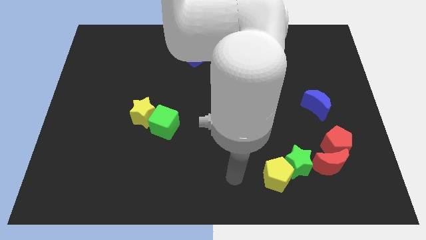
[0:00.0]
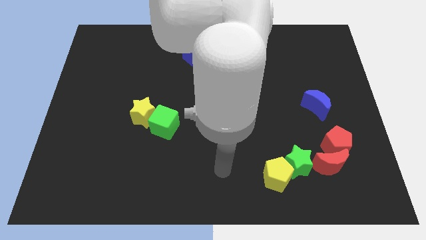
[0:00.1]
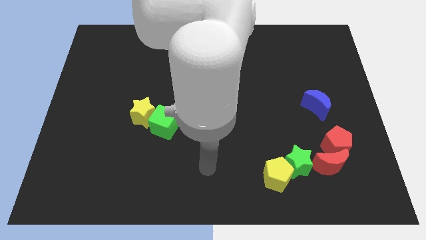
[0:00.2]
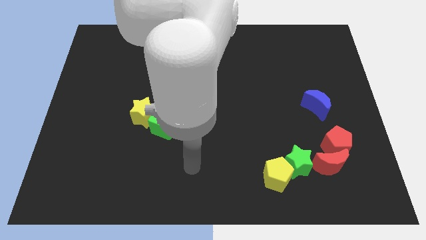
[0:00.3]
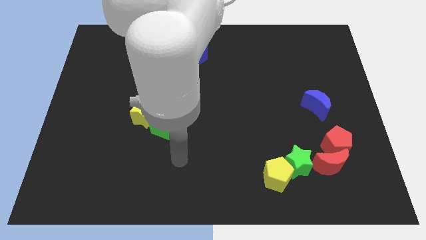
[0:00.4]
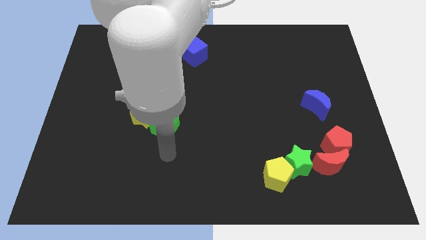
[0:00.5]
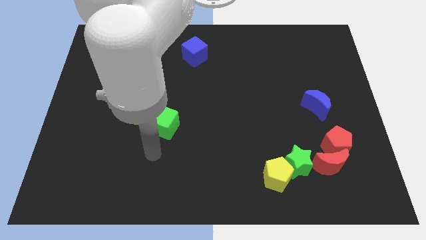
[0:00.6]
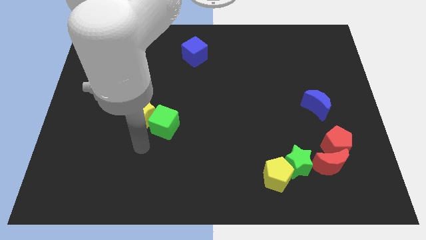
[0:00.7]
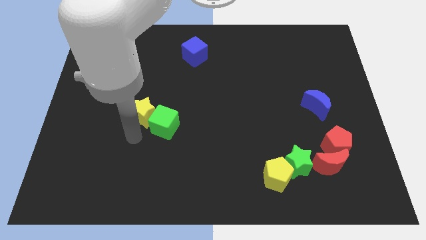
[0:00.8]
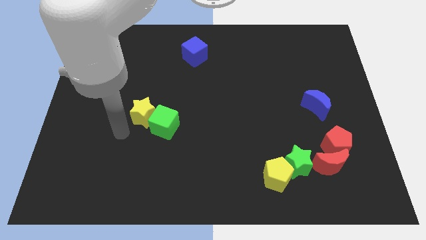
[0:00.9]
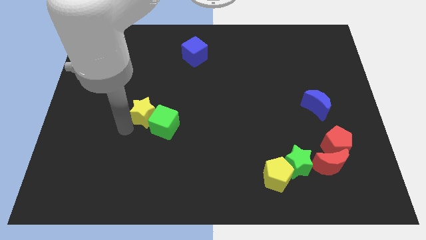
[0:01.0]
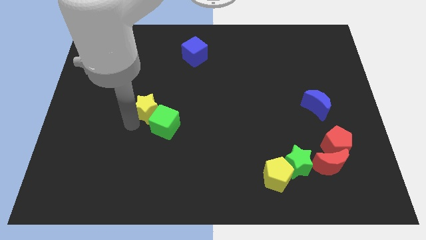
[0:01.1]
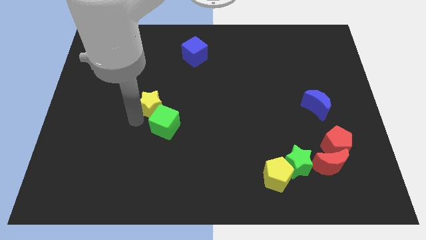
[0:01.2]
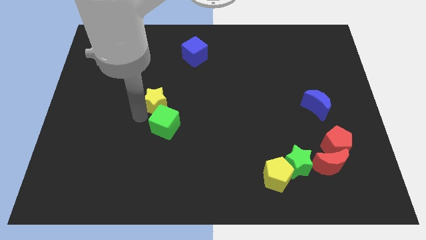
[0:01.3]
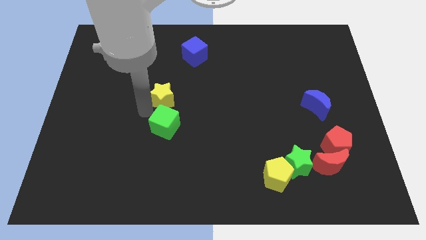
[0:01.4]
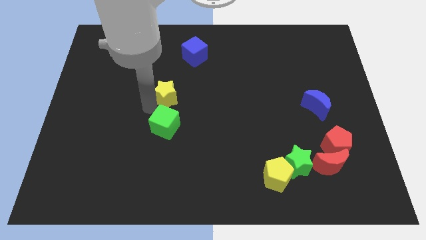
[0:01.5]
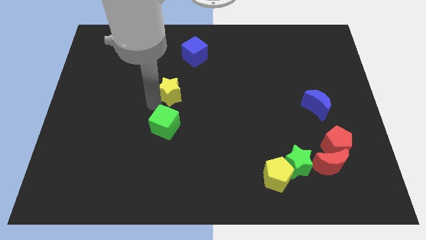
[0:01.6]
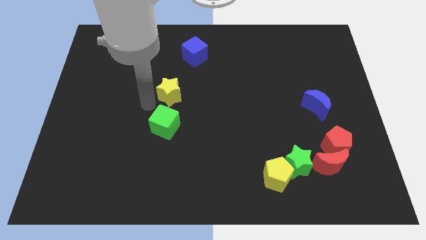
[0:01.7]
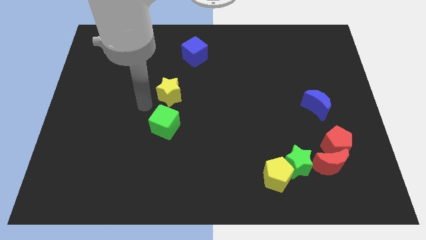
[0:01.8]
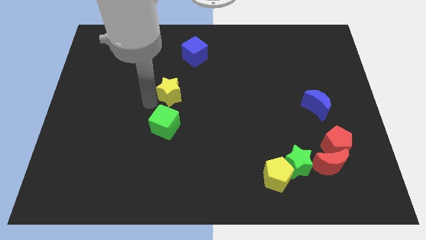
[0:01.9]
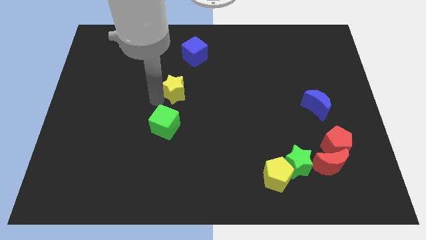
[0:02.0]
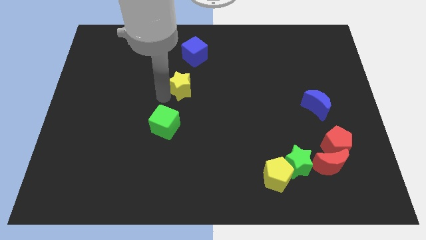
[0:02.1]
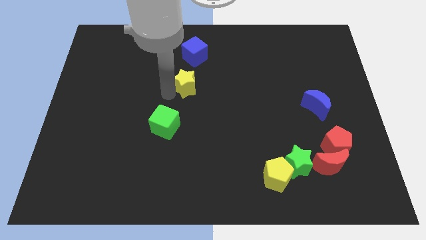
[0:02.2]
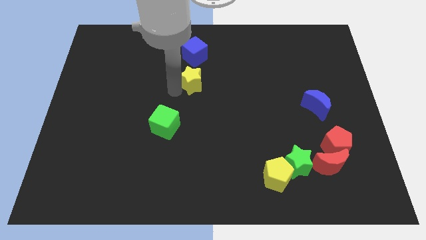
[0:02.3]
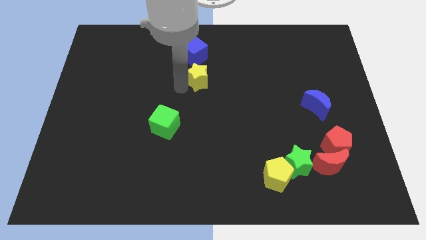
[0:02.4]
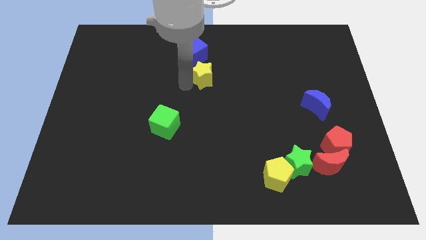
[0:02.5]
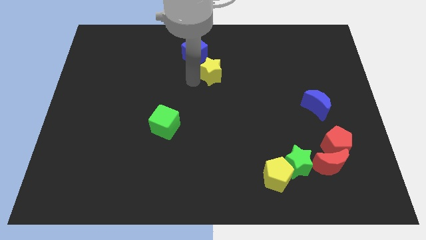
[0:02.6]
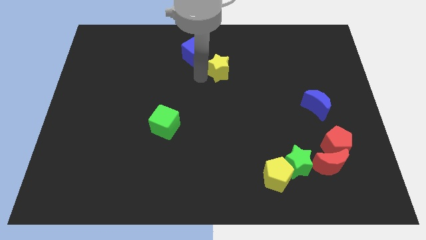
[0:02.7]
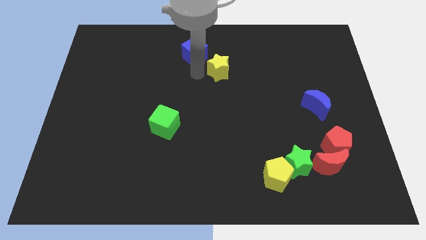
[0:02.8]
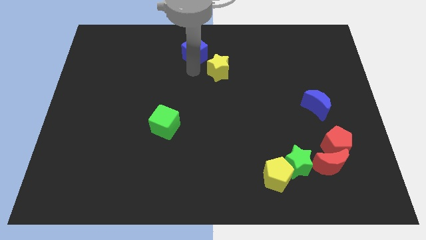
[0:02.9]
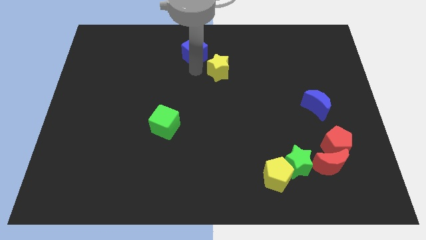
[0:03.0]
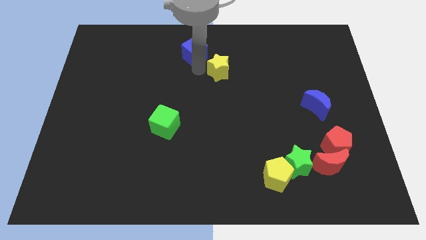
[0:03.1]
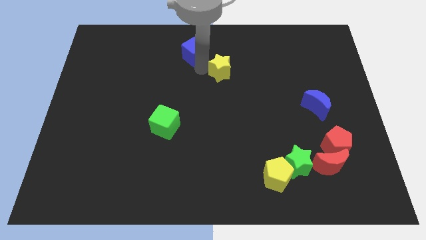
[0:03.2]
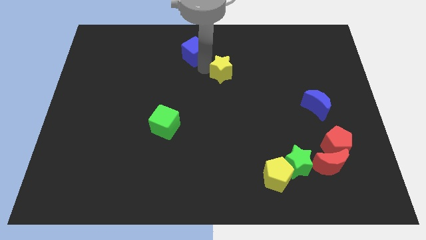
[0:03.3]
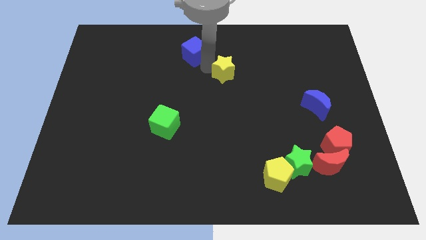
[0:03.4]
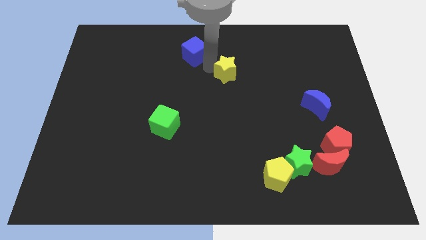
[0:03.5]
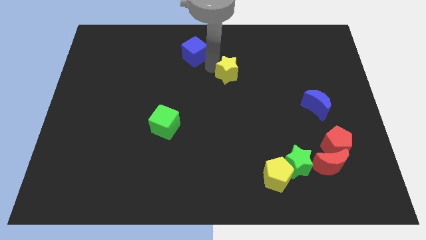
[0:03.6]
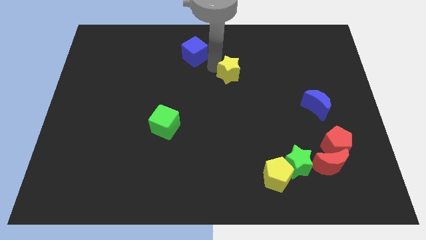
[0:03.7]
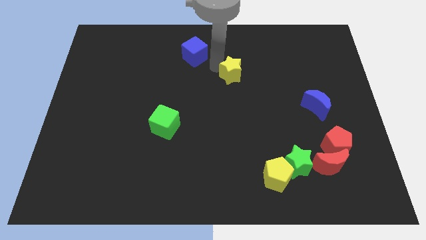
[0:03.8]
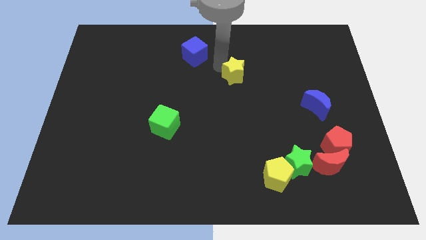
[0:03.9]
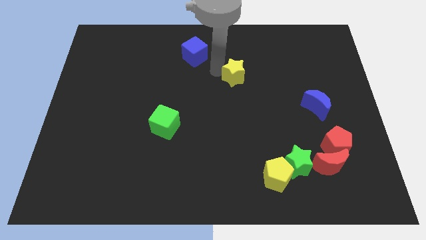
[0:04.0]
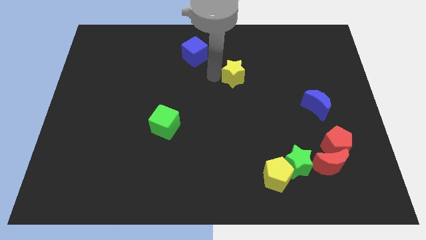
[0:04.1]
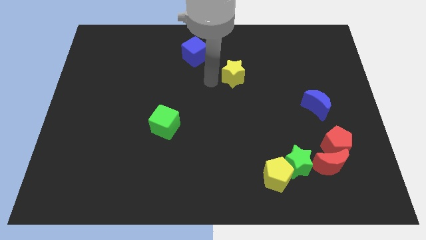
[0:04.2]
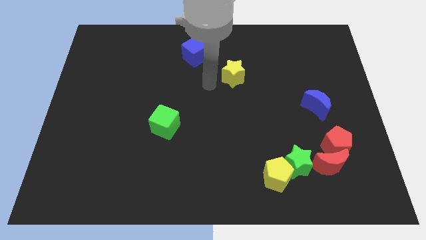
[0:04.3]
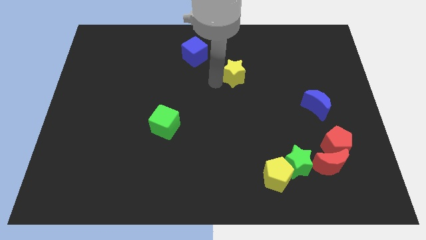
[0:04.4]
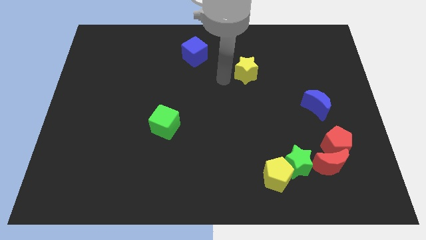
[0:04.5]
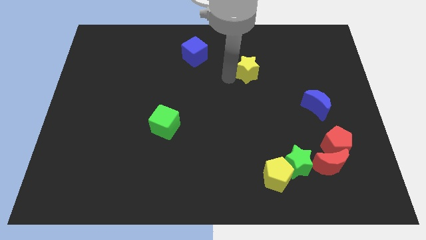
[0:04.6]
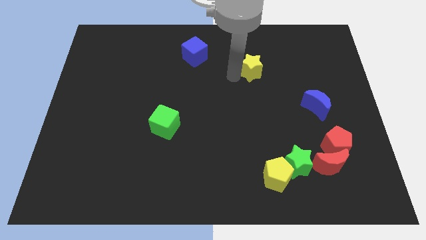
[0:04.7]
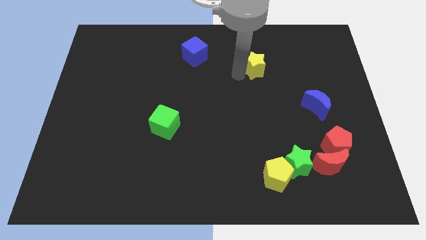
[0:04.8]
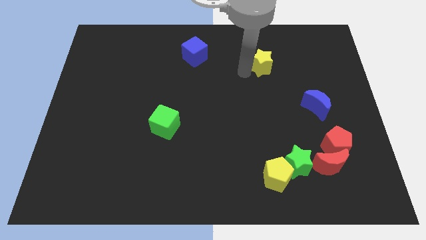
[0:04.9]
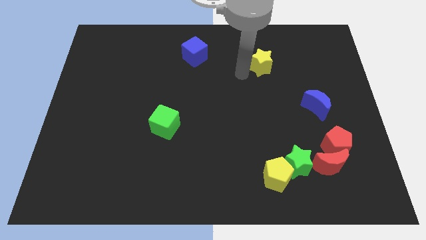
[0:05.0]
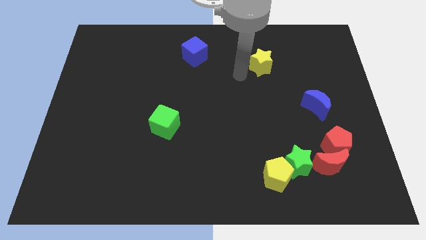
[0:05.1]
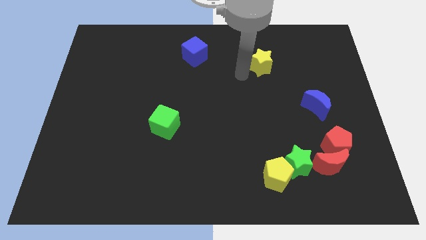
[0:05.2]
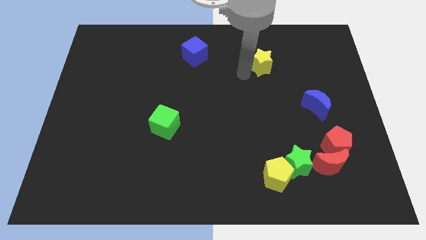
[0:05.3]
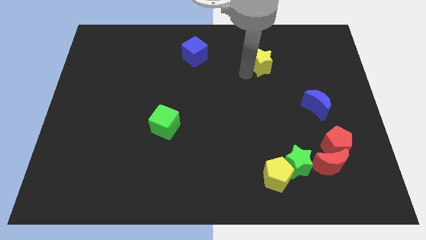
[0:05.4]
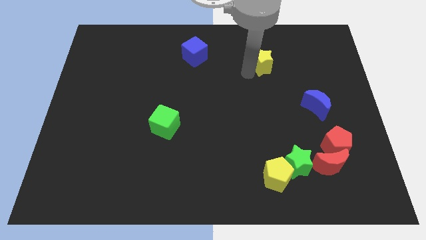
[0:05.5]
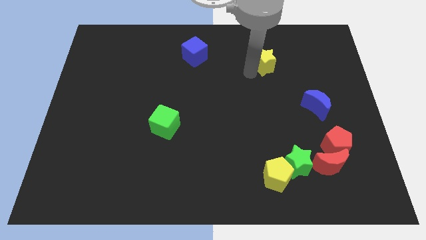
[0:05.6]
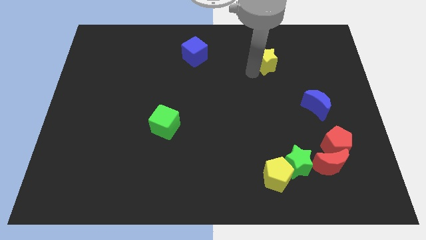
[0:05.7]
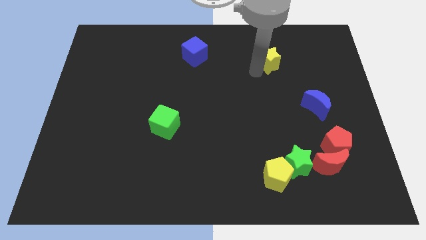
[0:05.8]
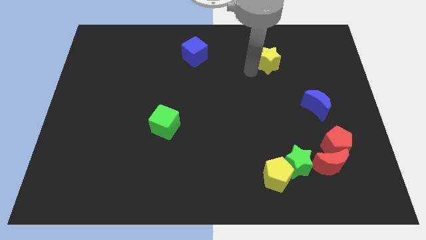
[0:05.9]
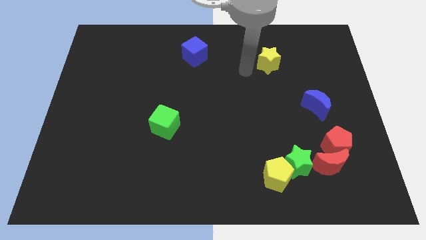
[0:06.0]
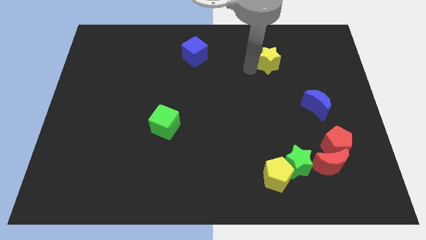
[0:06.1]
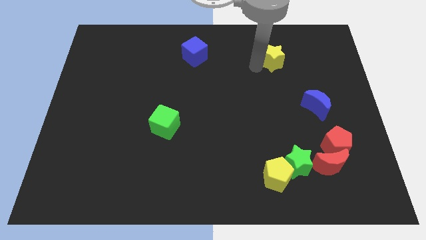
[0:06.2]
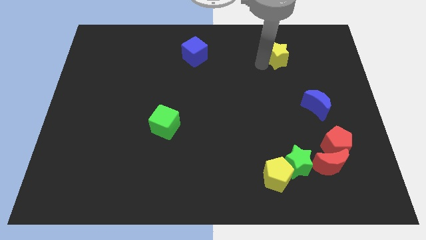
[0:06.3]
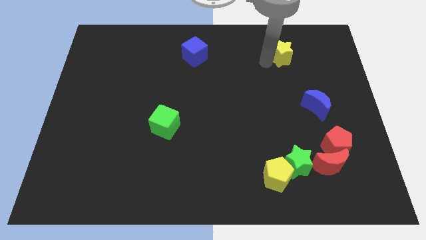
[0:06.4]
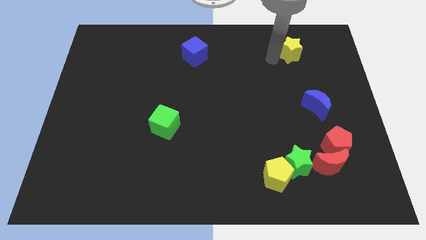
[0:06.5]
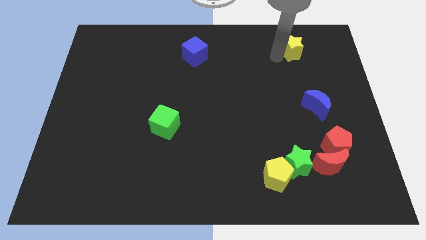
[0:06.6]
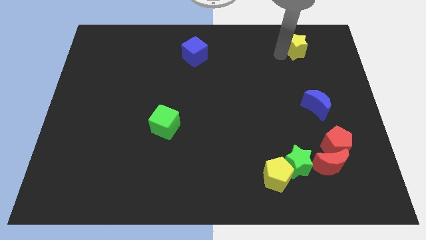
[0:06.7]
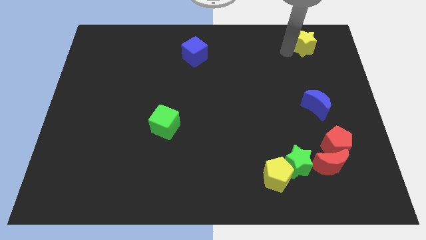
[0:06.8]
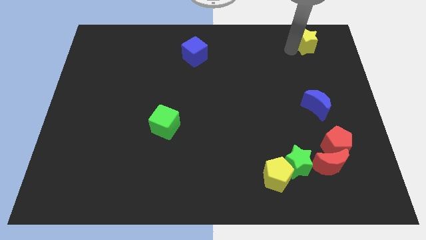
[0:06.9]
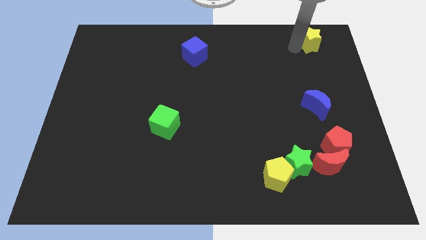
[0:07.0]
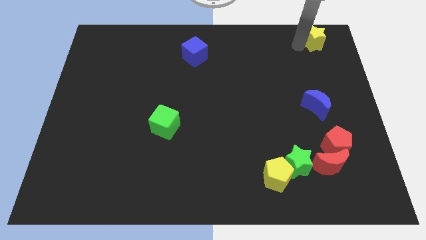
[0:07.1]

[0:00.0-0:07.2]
put the yellow star to the top right of the board
